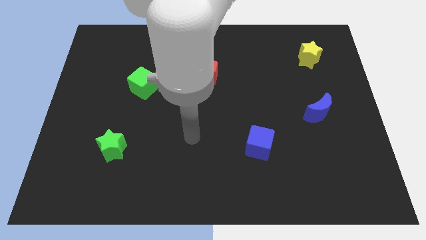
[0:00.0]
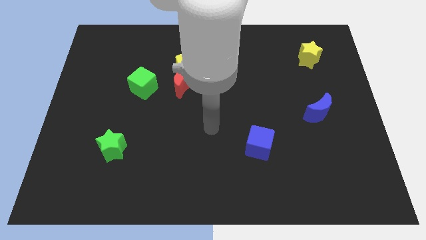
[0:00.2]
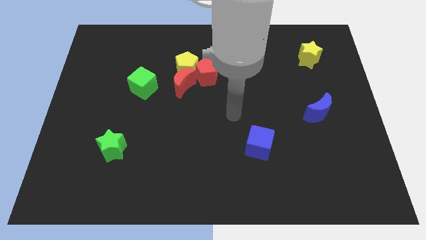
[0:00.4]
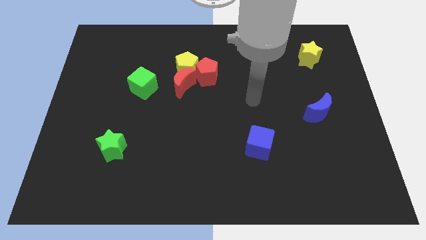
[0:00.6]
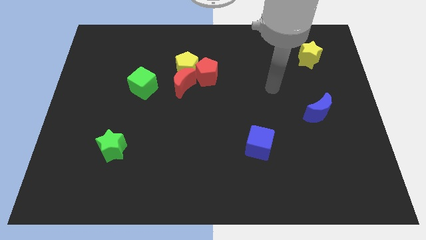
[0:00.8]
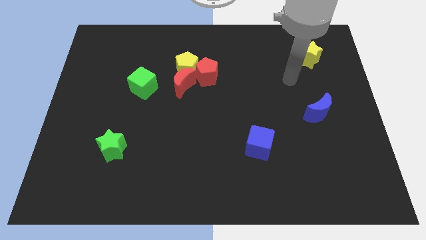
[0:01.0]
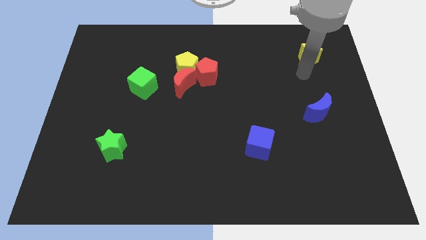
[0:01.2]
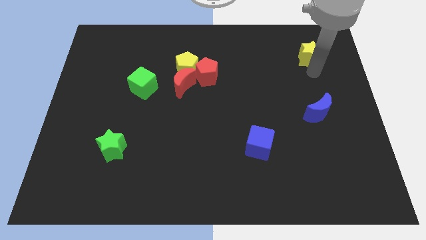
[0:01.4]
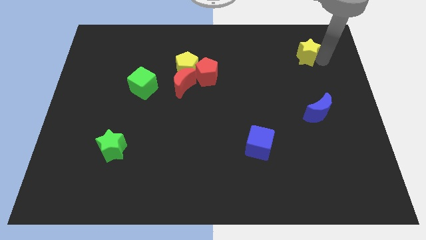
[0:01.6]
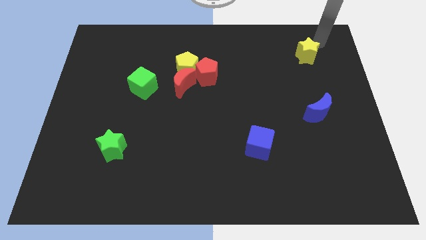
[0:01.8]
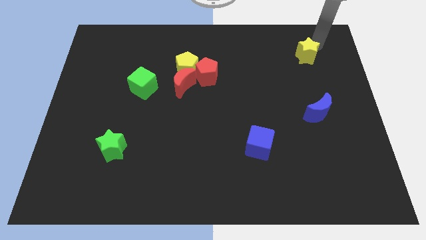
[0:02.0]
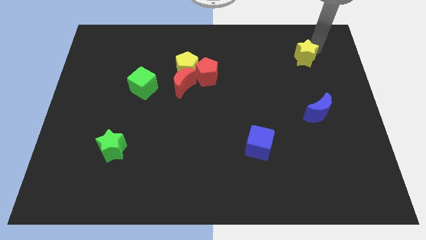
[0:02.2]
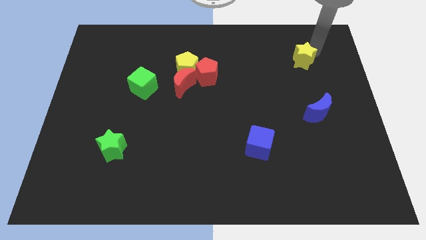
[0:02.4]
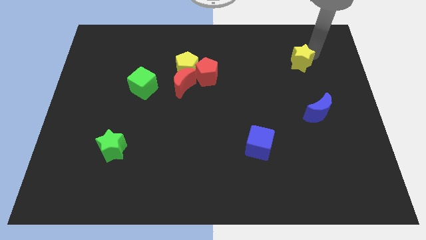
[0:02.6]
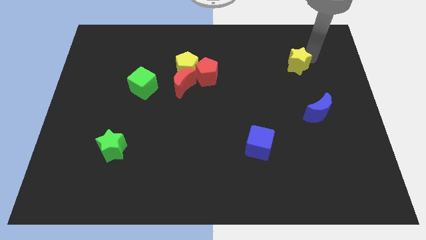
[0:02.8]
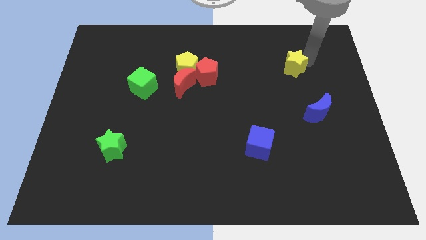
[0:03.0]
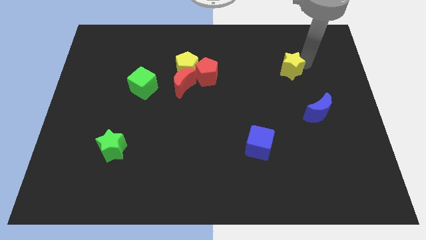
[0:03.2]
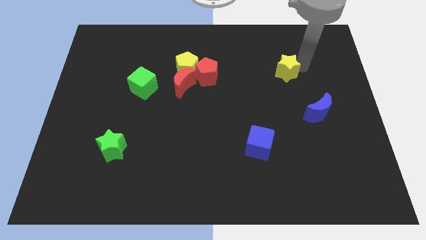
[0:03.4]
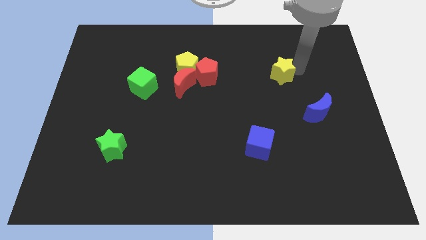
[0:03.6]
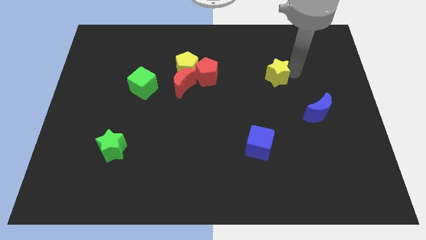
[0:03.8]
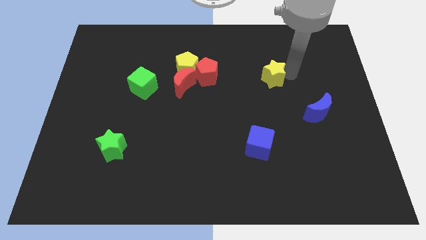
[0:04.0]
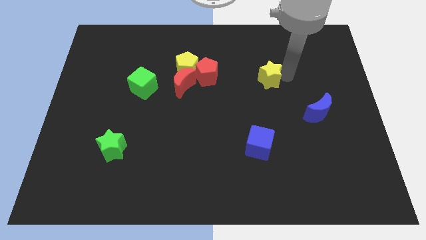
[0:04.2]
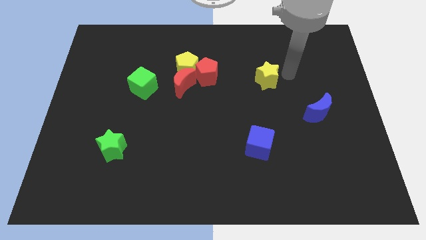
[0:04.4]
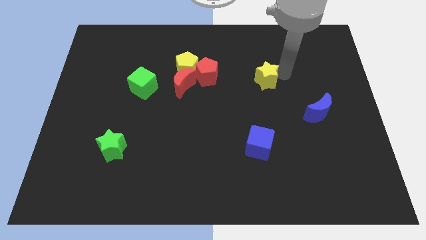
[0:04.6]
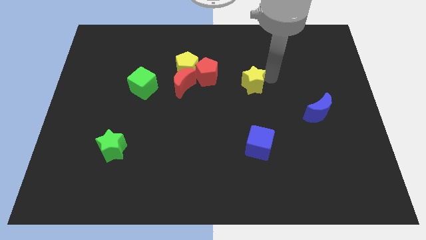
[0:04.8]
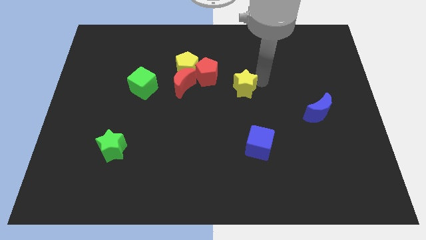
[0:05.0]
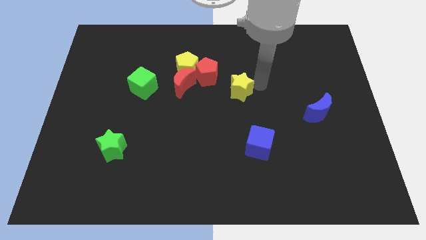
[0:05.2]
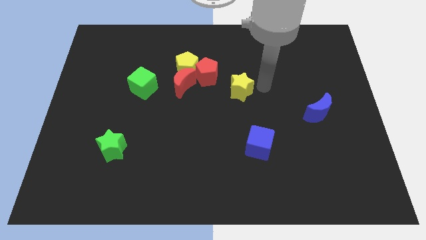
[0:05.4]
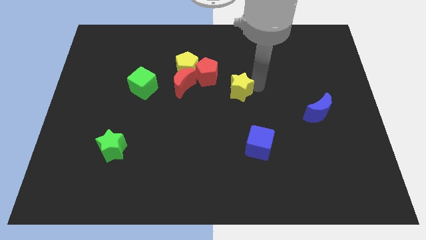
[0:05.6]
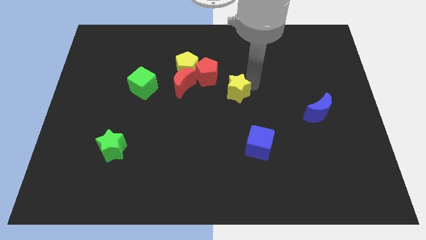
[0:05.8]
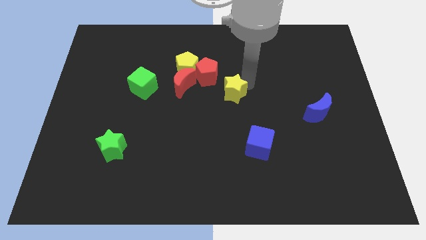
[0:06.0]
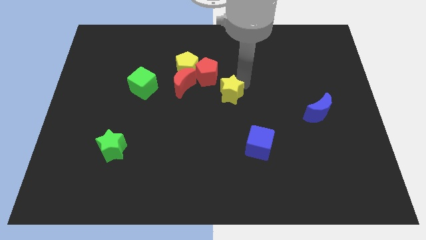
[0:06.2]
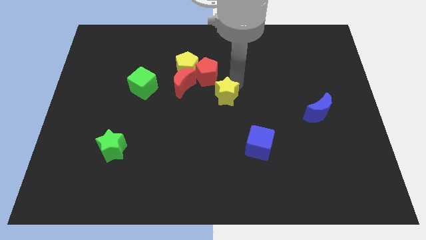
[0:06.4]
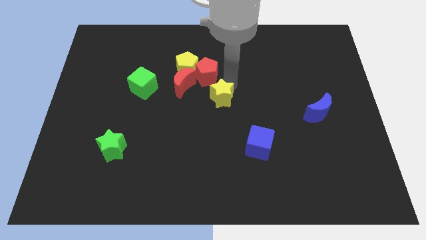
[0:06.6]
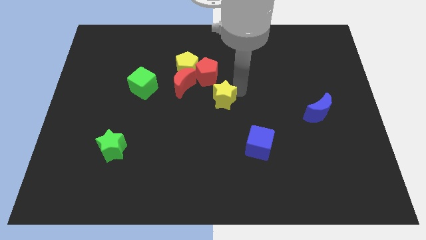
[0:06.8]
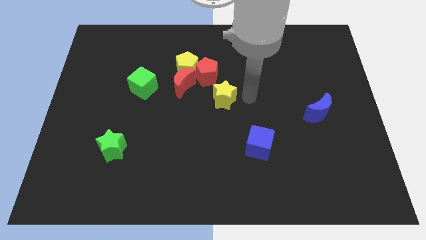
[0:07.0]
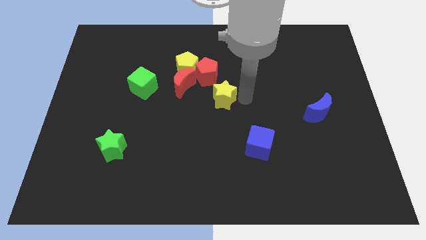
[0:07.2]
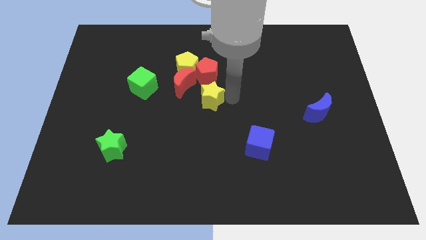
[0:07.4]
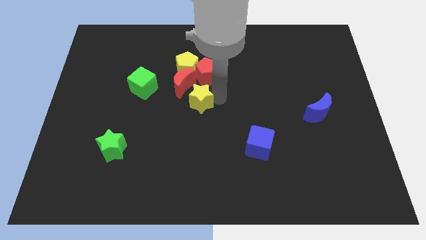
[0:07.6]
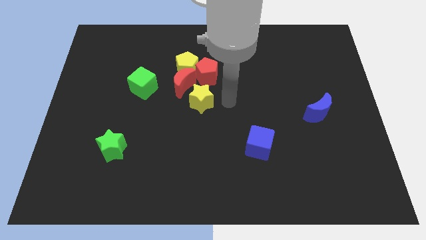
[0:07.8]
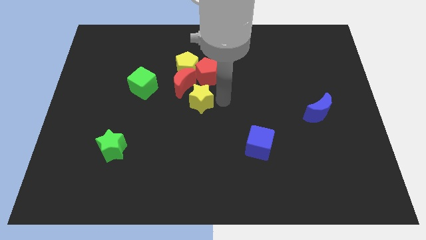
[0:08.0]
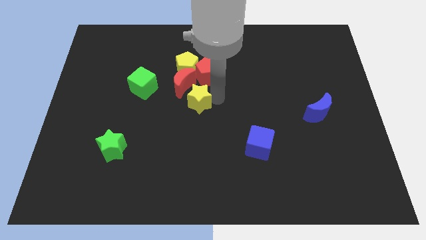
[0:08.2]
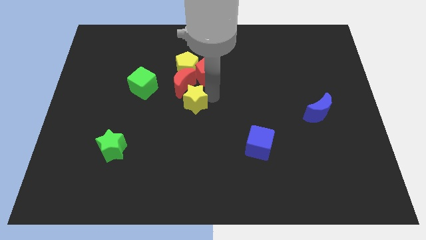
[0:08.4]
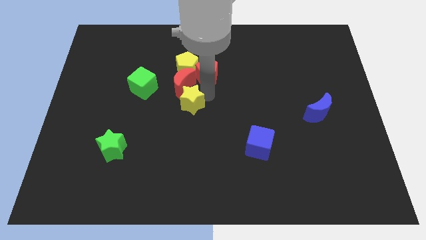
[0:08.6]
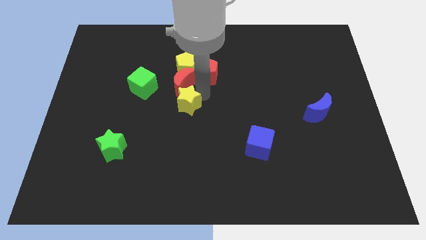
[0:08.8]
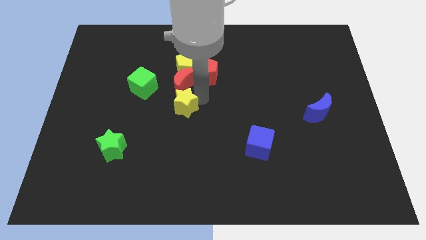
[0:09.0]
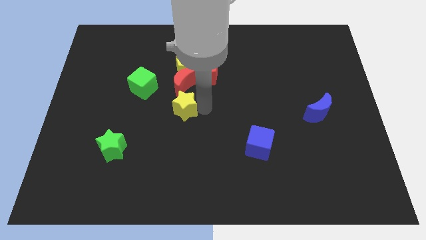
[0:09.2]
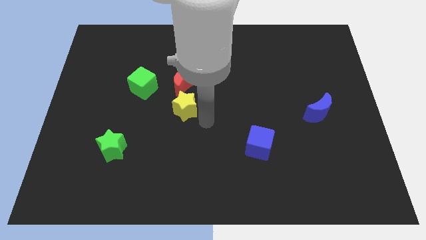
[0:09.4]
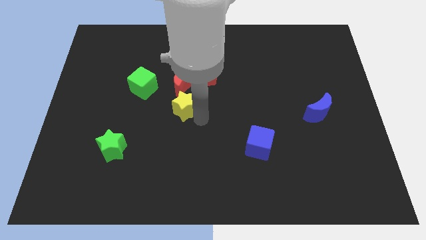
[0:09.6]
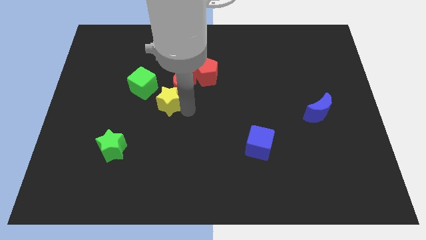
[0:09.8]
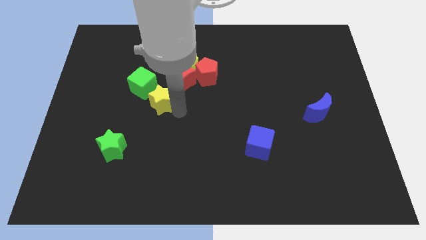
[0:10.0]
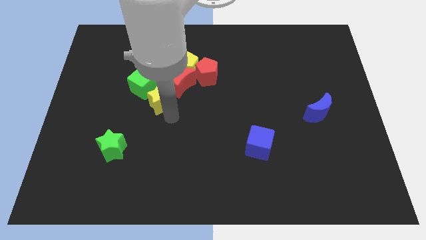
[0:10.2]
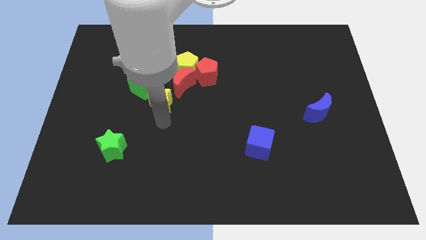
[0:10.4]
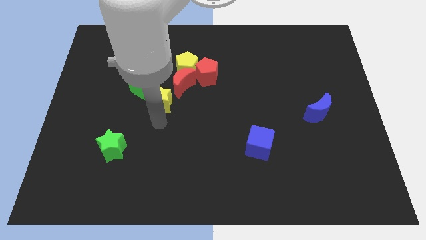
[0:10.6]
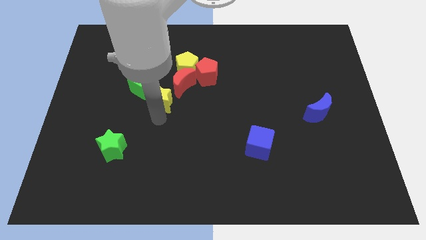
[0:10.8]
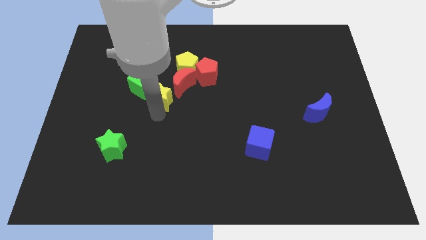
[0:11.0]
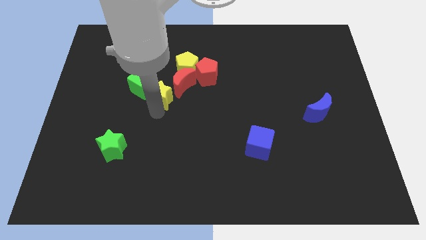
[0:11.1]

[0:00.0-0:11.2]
move the yellow star to the green cube

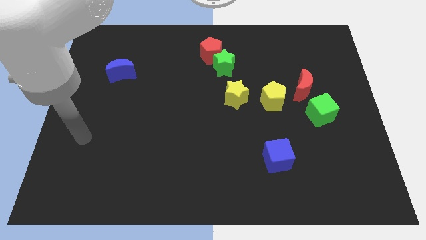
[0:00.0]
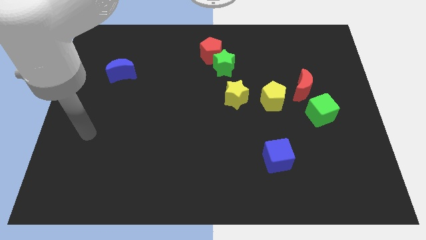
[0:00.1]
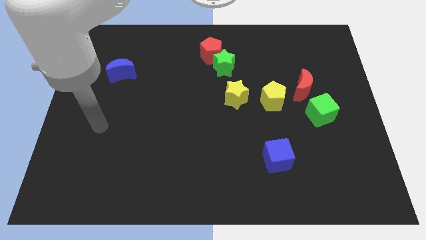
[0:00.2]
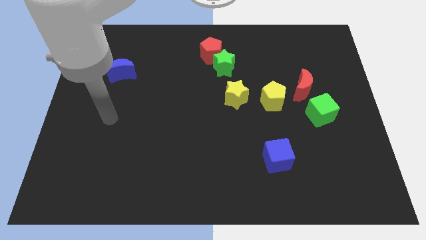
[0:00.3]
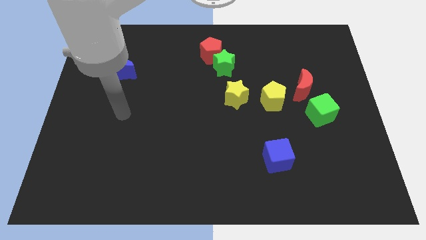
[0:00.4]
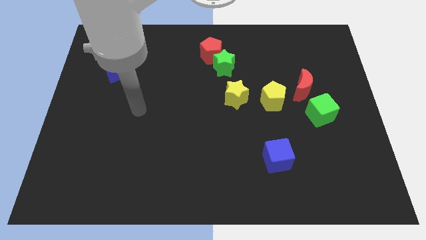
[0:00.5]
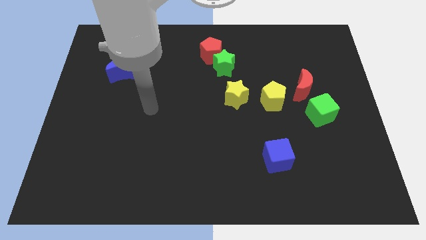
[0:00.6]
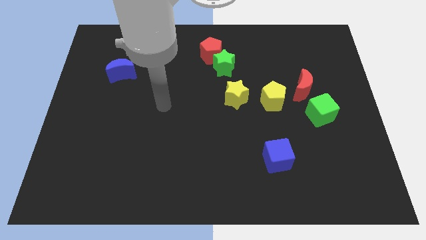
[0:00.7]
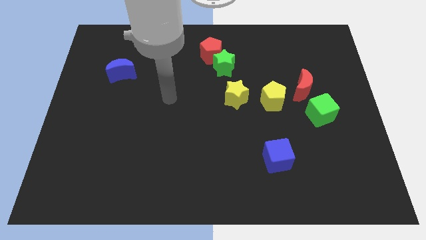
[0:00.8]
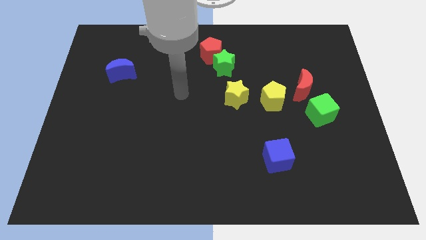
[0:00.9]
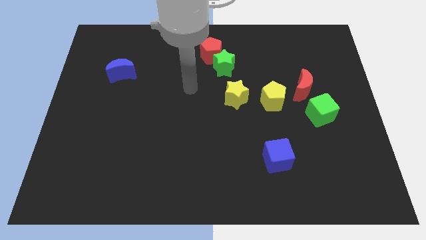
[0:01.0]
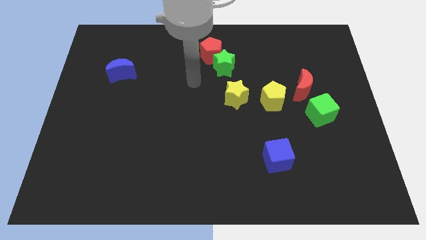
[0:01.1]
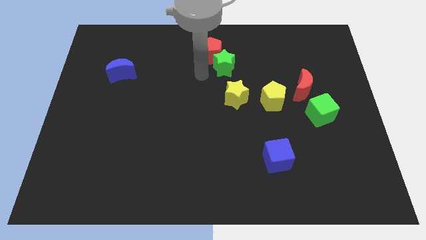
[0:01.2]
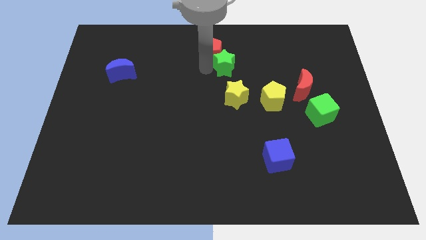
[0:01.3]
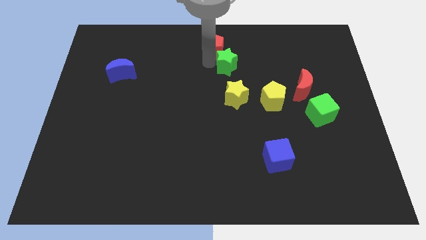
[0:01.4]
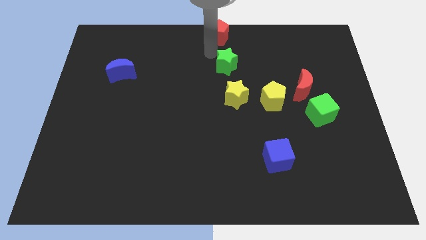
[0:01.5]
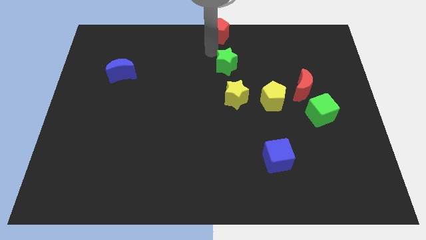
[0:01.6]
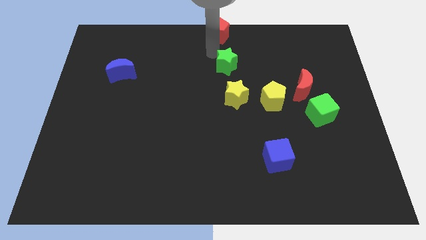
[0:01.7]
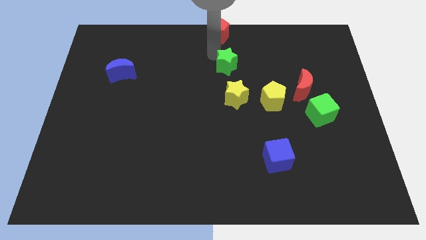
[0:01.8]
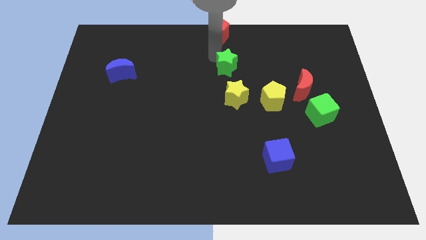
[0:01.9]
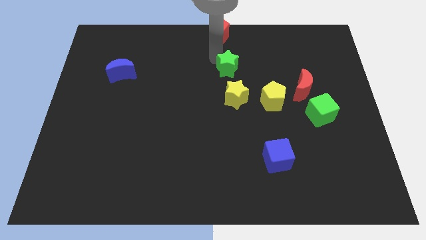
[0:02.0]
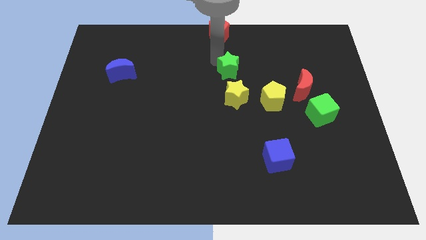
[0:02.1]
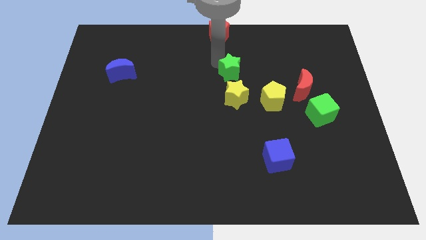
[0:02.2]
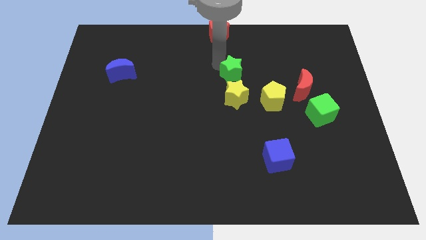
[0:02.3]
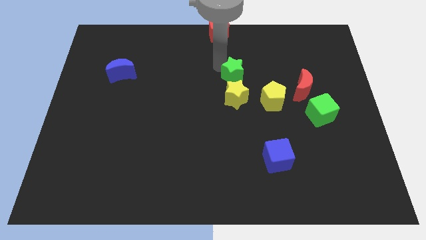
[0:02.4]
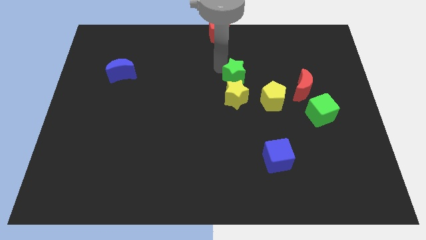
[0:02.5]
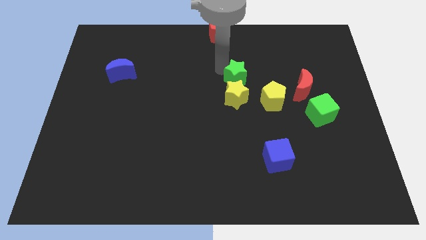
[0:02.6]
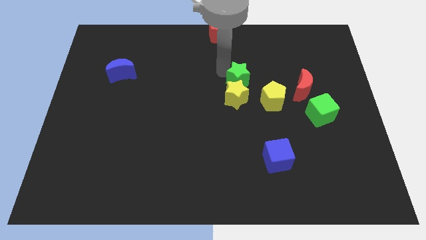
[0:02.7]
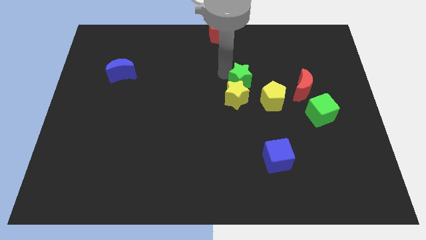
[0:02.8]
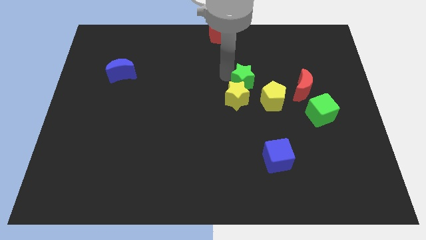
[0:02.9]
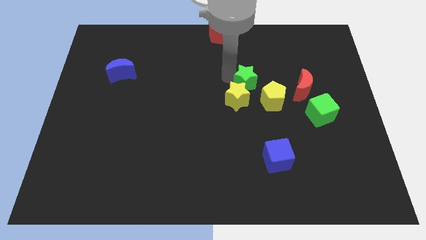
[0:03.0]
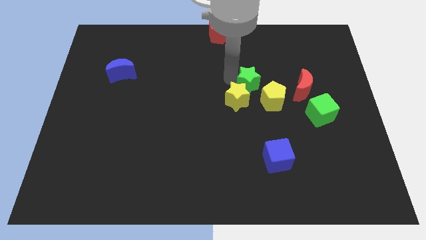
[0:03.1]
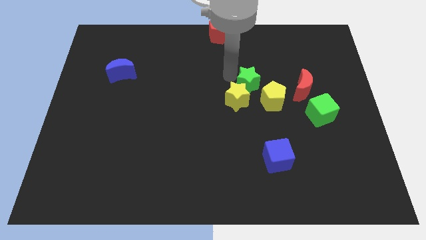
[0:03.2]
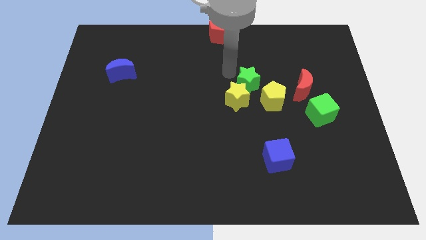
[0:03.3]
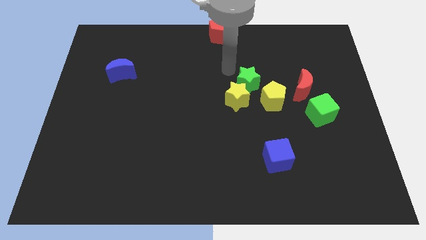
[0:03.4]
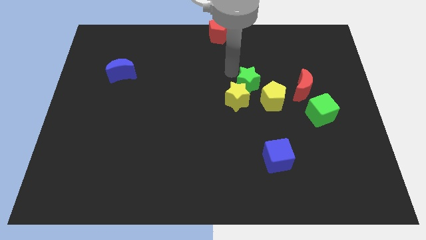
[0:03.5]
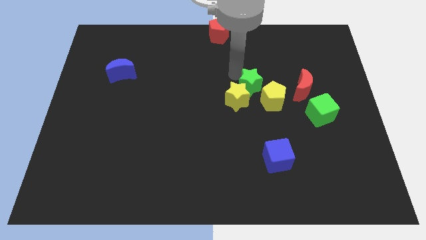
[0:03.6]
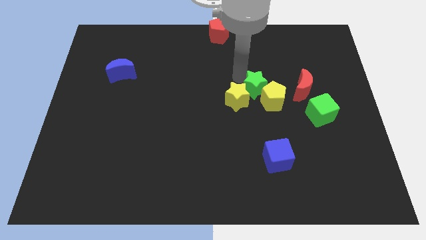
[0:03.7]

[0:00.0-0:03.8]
move the green star close to the yellow pentagon
